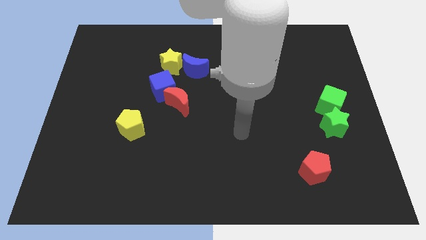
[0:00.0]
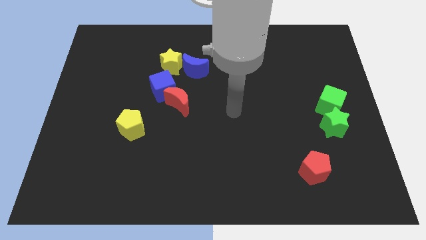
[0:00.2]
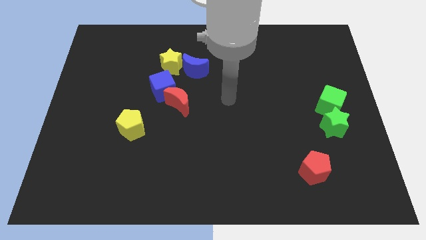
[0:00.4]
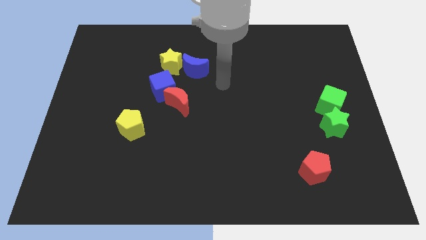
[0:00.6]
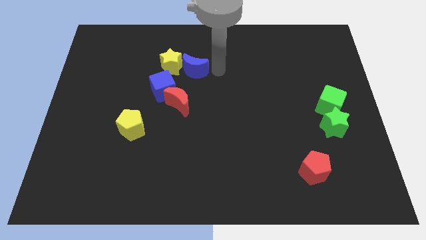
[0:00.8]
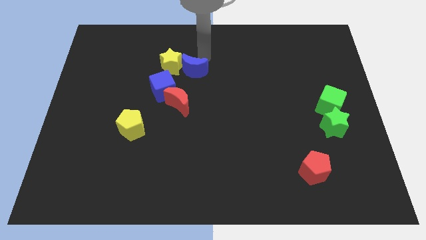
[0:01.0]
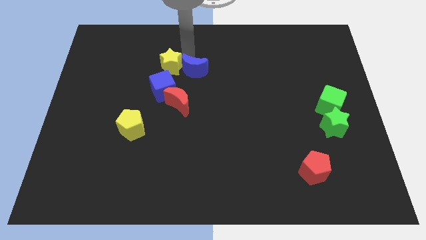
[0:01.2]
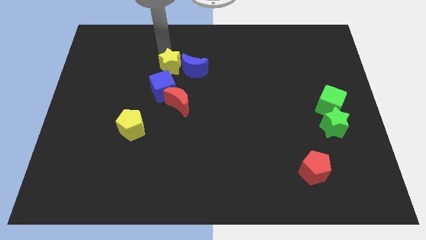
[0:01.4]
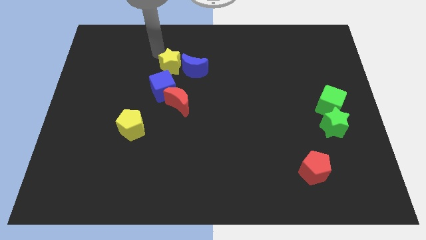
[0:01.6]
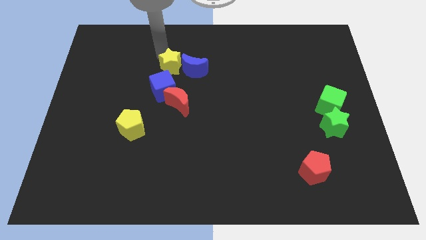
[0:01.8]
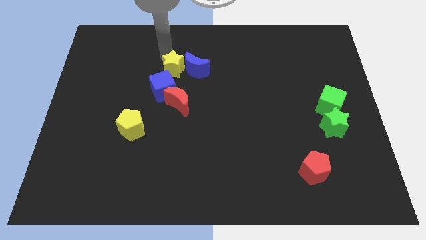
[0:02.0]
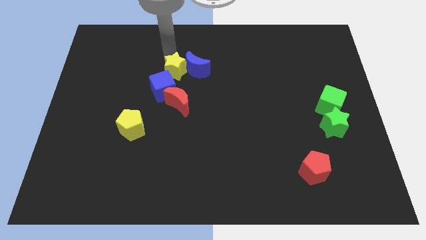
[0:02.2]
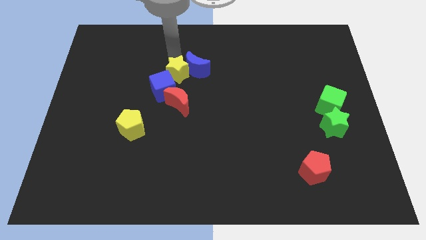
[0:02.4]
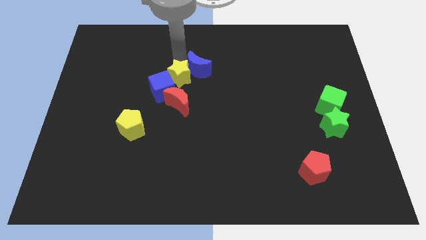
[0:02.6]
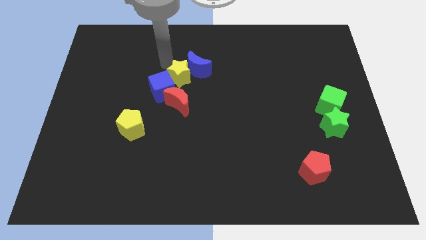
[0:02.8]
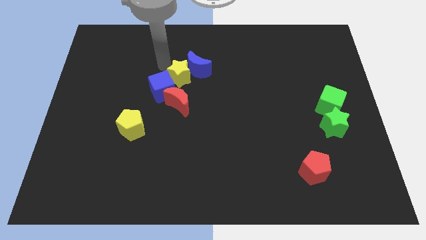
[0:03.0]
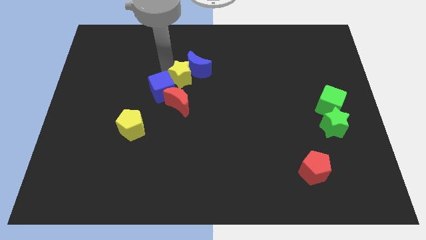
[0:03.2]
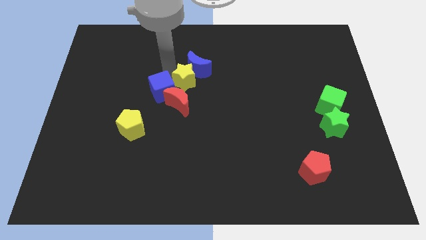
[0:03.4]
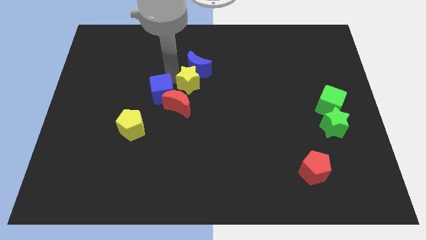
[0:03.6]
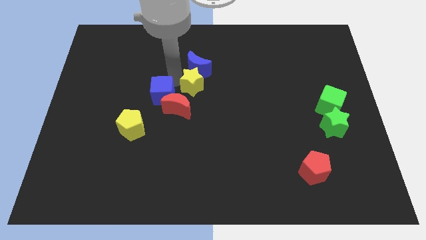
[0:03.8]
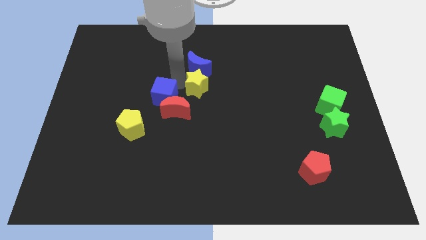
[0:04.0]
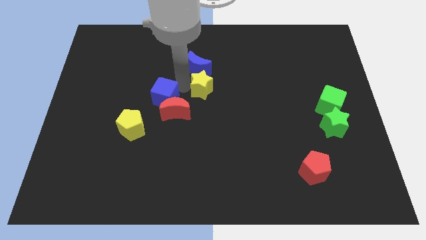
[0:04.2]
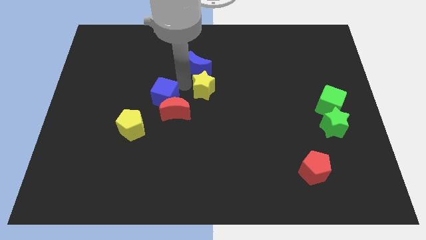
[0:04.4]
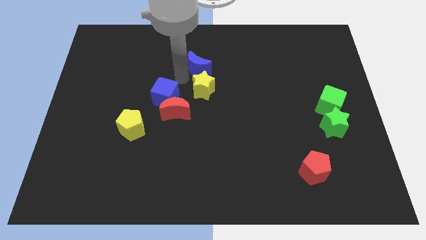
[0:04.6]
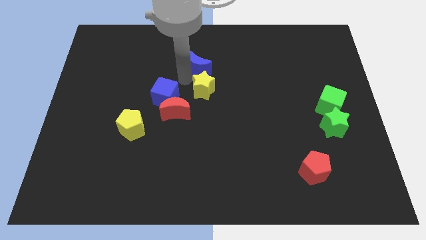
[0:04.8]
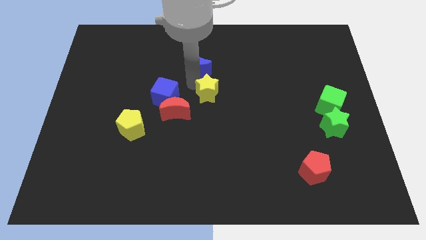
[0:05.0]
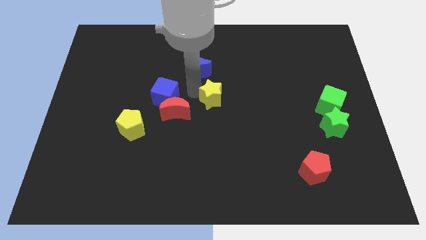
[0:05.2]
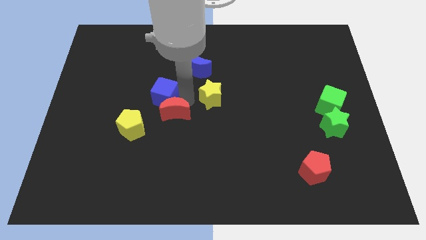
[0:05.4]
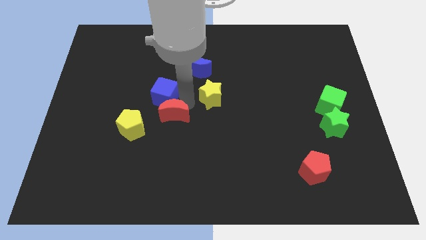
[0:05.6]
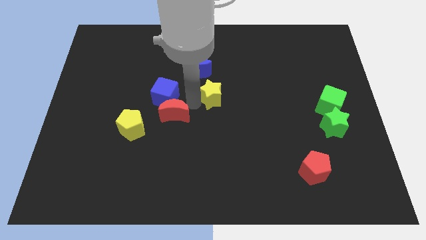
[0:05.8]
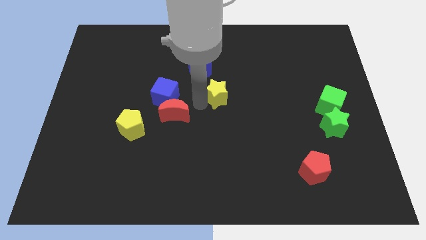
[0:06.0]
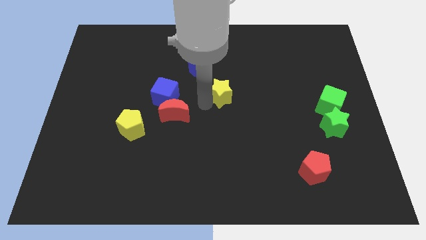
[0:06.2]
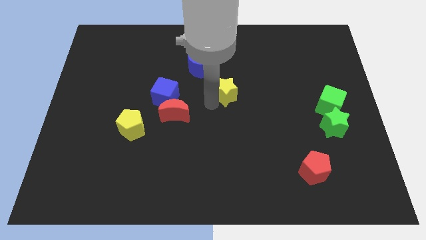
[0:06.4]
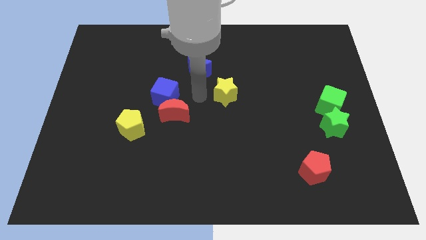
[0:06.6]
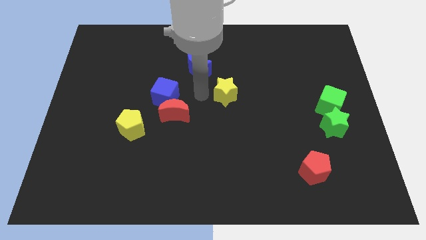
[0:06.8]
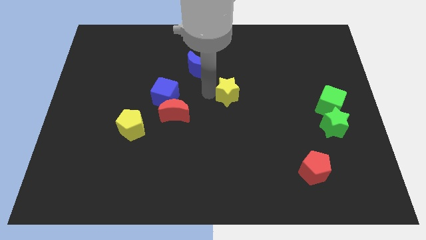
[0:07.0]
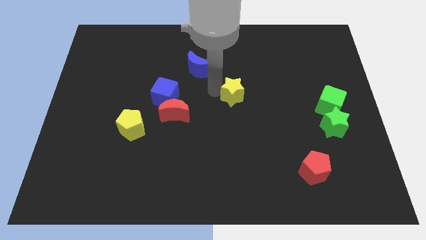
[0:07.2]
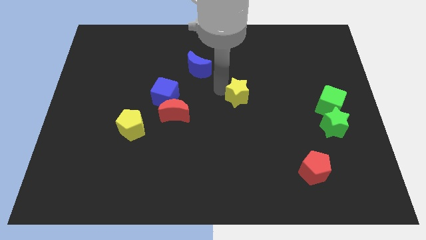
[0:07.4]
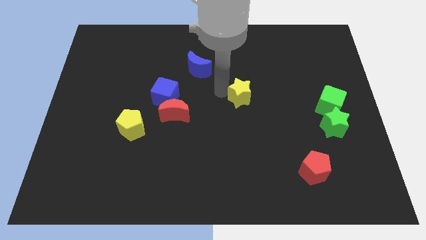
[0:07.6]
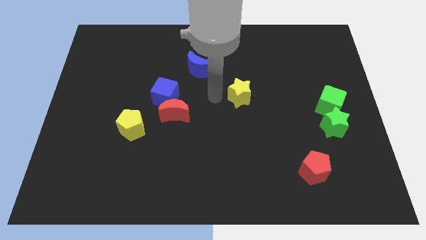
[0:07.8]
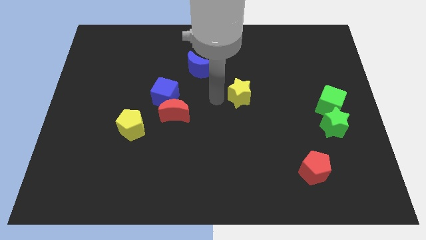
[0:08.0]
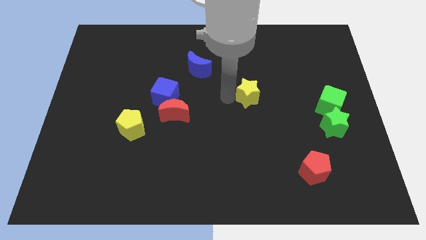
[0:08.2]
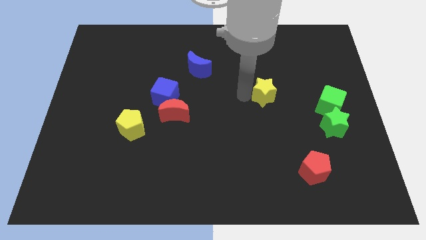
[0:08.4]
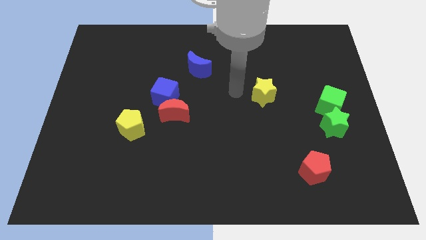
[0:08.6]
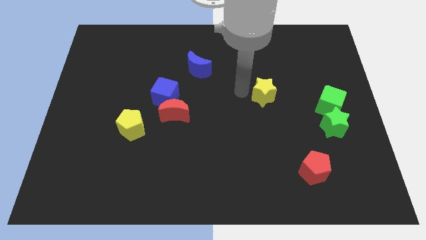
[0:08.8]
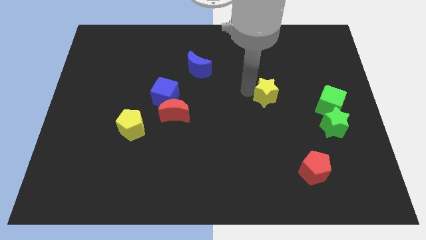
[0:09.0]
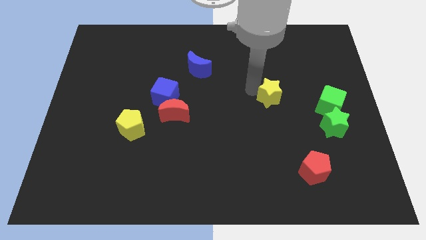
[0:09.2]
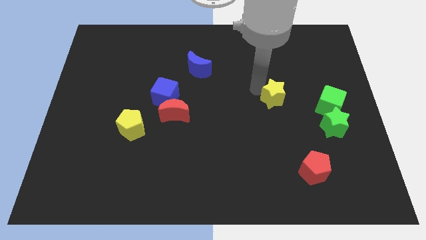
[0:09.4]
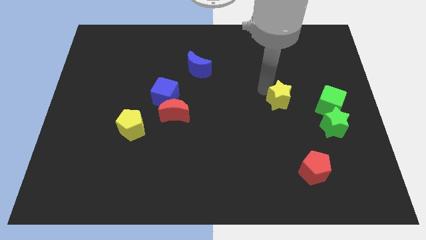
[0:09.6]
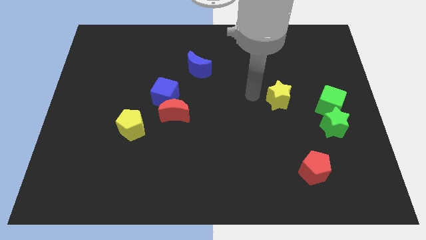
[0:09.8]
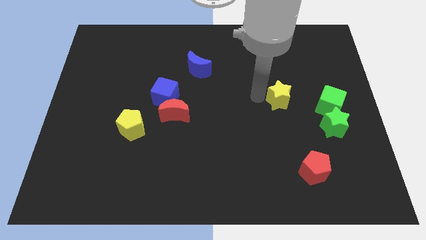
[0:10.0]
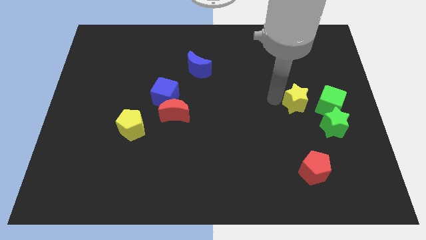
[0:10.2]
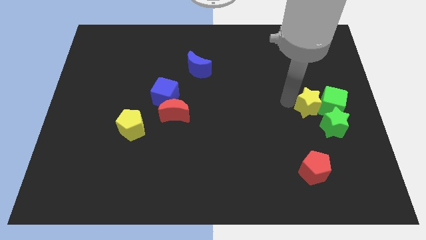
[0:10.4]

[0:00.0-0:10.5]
slide the yellow star to the green cube

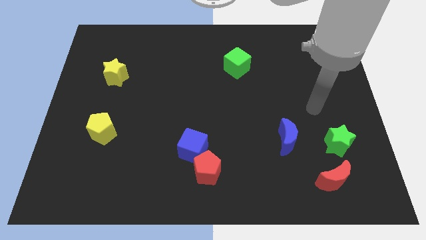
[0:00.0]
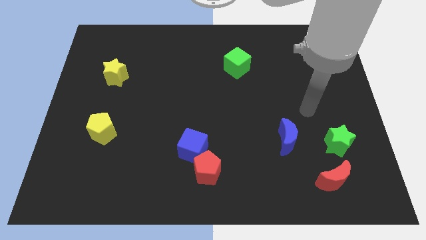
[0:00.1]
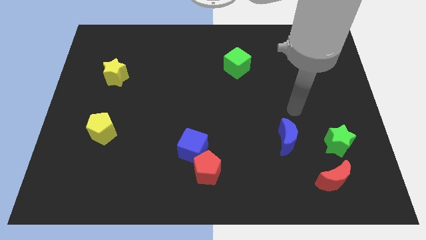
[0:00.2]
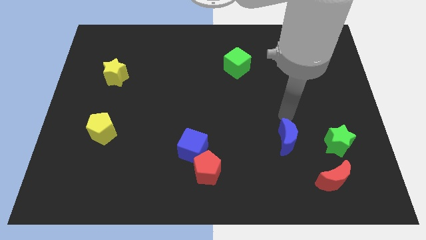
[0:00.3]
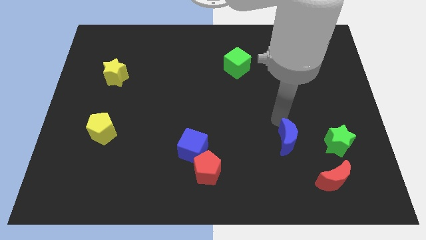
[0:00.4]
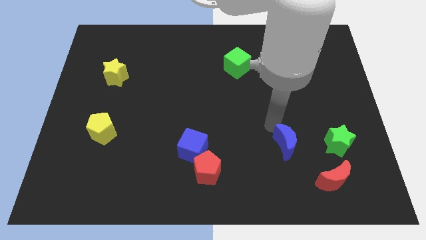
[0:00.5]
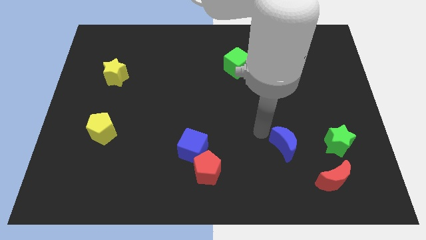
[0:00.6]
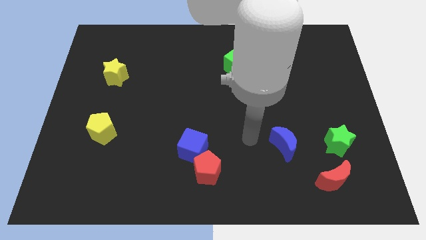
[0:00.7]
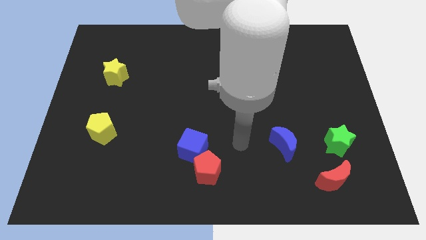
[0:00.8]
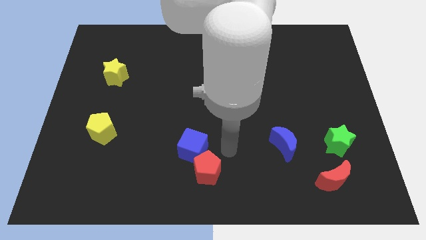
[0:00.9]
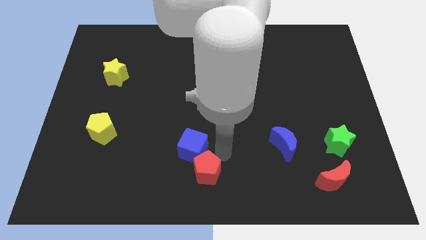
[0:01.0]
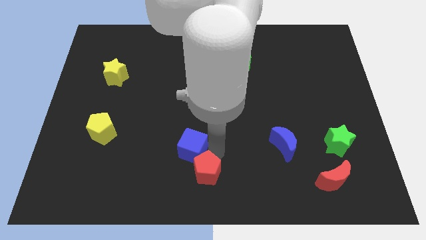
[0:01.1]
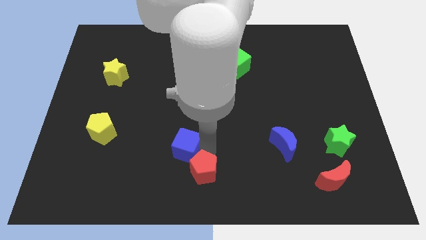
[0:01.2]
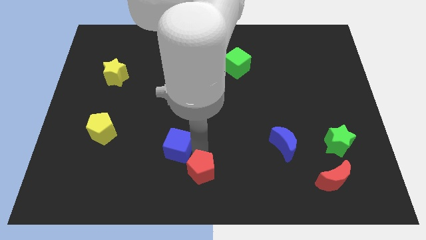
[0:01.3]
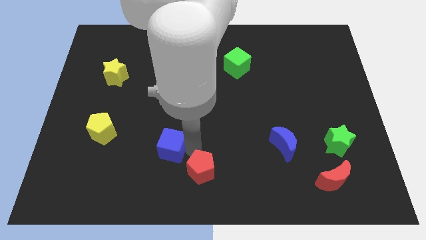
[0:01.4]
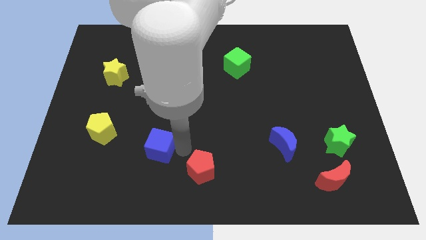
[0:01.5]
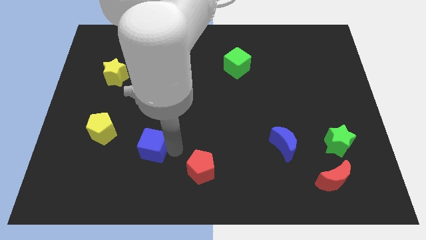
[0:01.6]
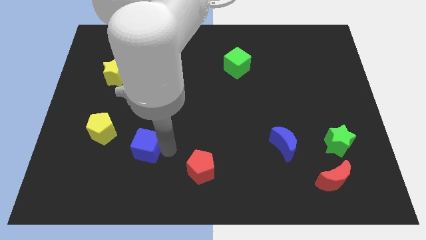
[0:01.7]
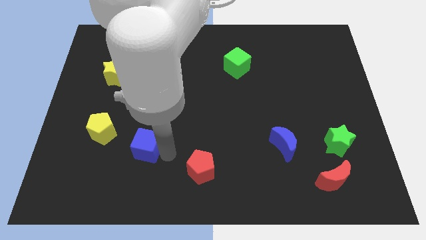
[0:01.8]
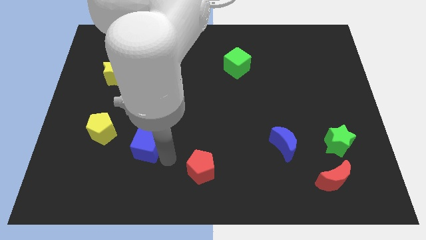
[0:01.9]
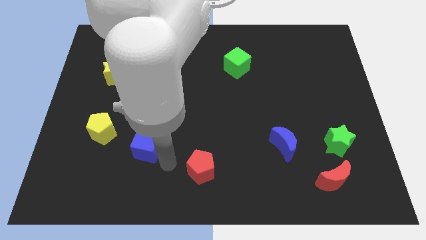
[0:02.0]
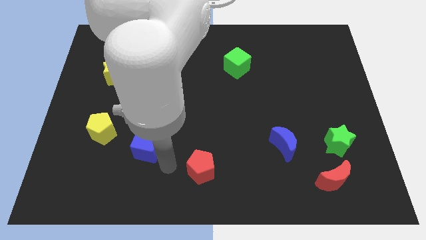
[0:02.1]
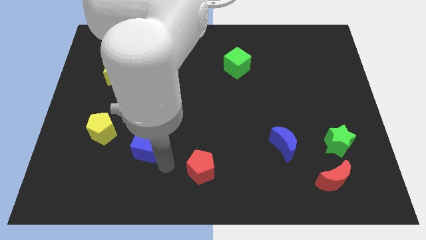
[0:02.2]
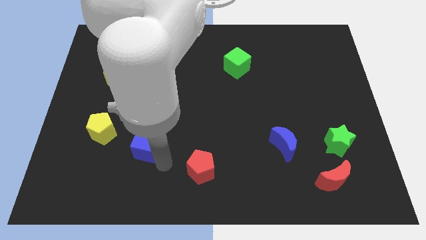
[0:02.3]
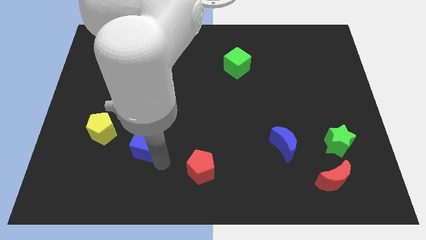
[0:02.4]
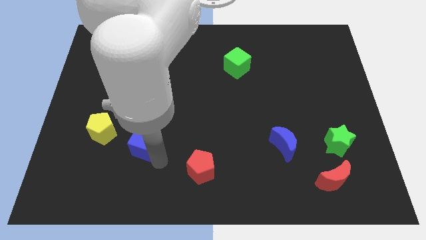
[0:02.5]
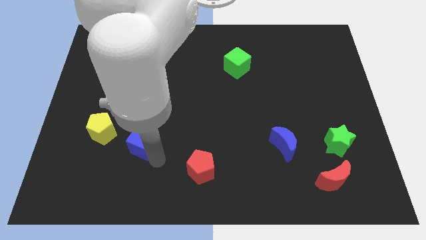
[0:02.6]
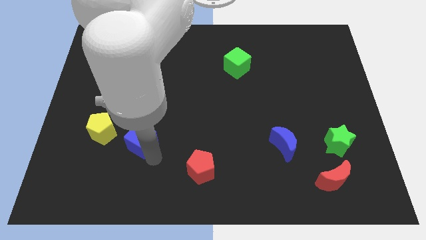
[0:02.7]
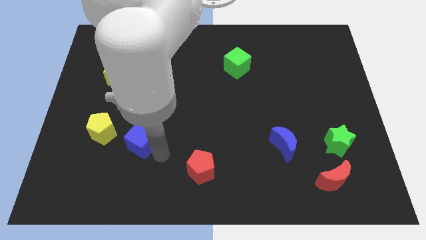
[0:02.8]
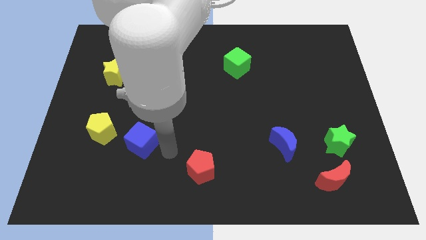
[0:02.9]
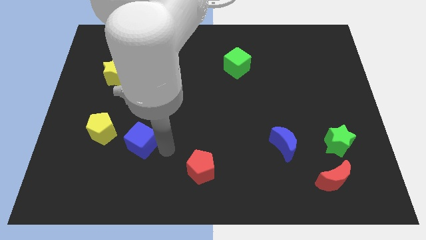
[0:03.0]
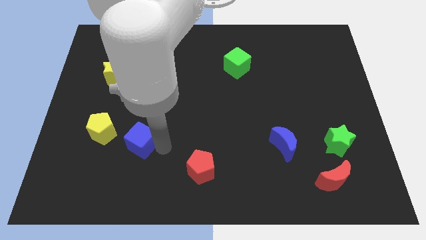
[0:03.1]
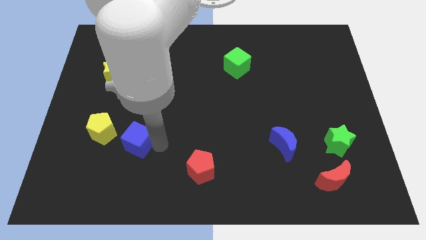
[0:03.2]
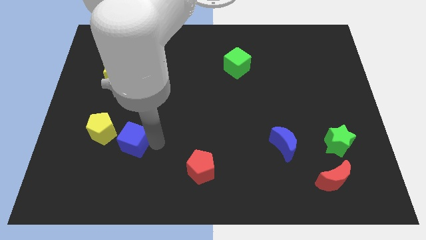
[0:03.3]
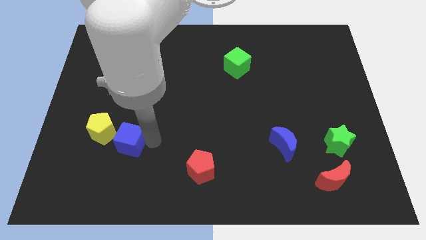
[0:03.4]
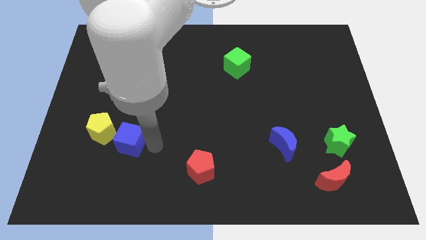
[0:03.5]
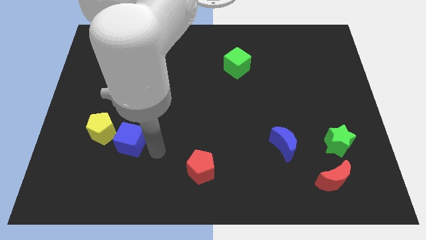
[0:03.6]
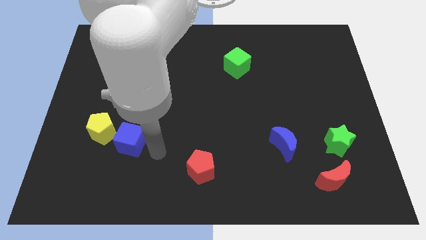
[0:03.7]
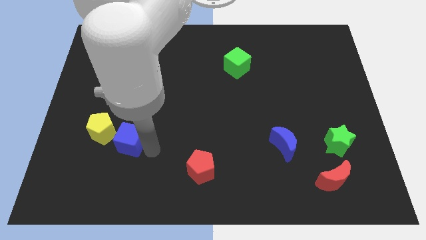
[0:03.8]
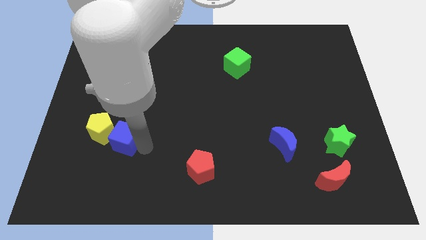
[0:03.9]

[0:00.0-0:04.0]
slide the blue cube to the yellow pentagon
